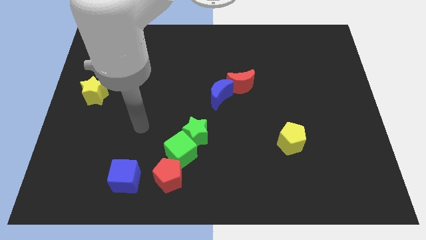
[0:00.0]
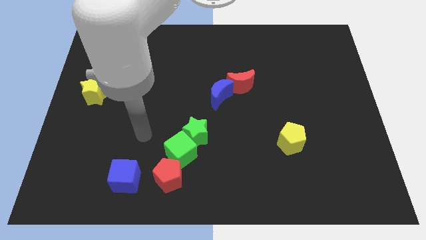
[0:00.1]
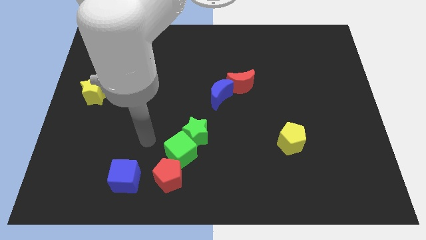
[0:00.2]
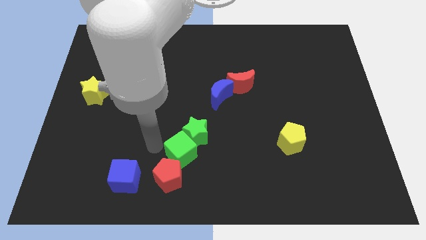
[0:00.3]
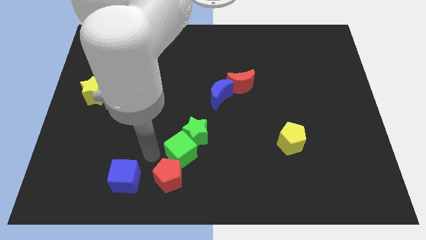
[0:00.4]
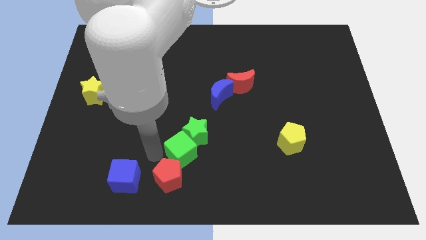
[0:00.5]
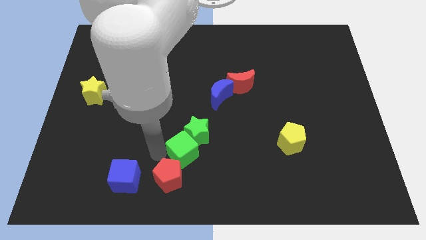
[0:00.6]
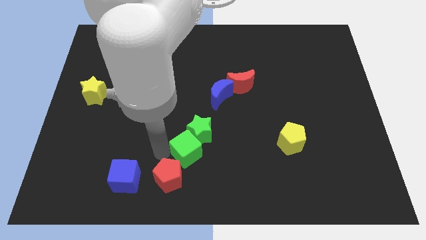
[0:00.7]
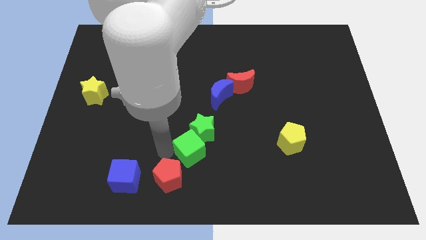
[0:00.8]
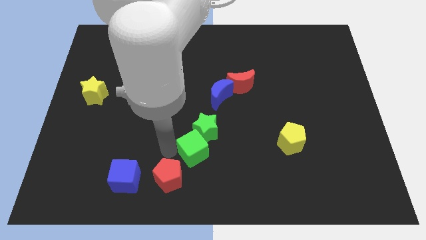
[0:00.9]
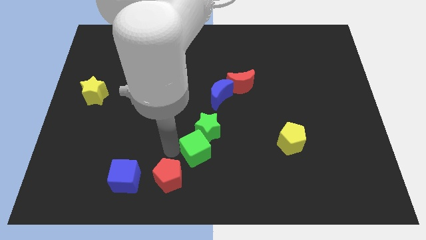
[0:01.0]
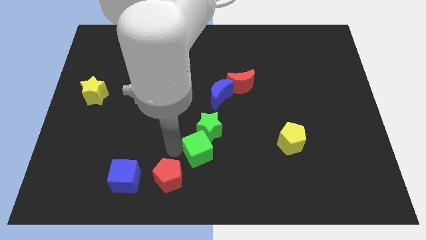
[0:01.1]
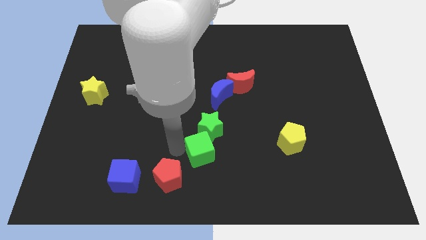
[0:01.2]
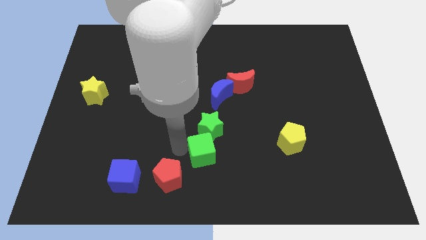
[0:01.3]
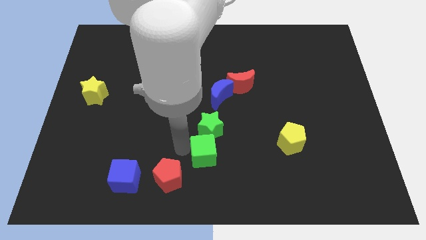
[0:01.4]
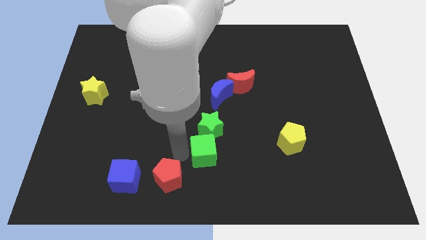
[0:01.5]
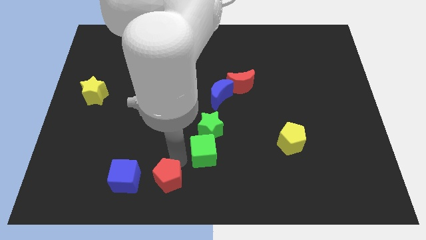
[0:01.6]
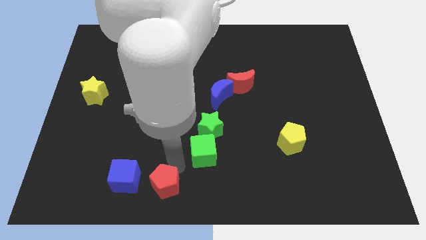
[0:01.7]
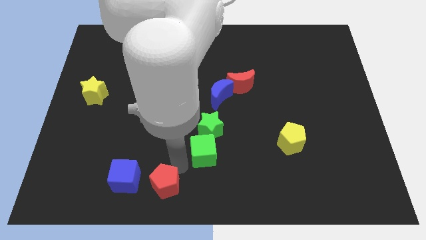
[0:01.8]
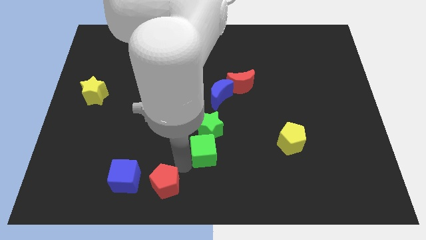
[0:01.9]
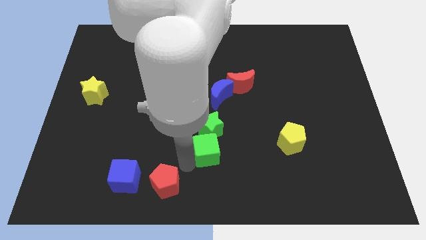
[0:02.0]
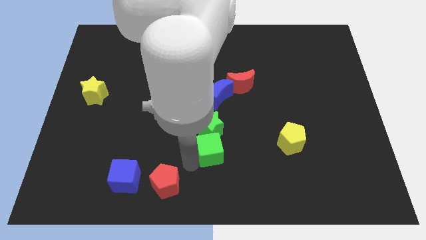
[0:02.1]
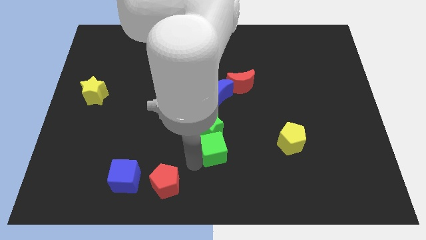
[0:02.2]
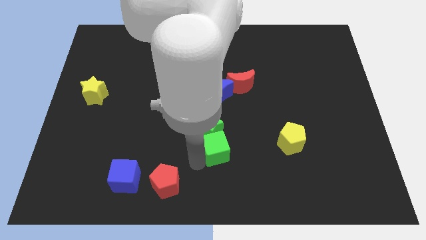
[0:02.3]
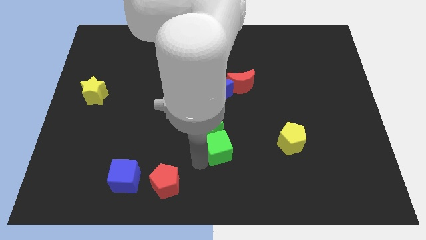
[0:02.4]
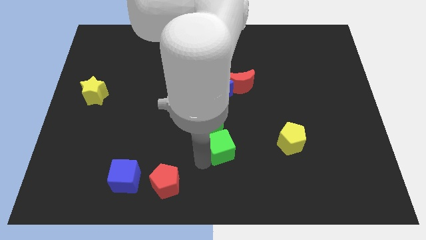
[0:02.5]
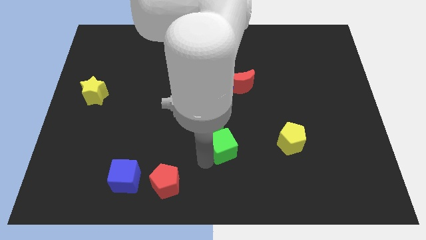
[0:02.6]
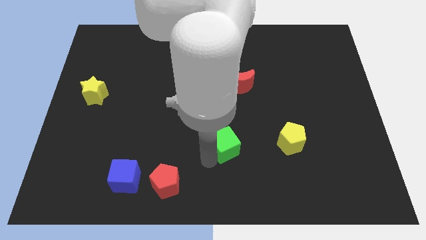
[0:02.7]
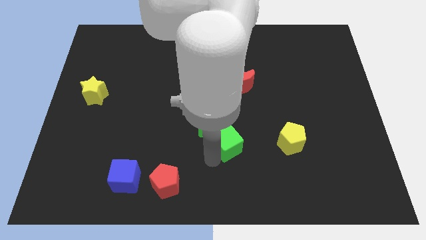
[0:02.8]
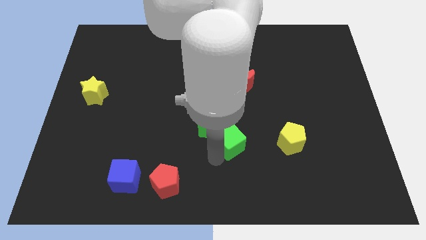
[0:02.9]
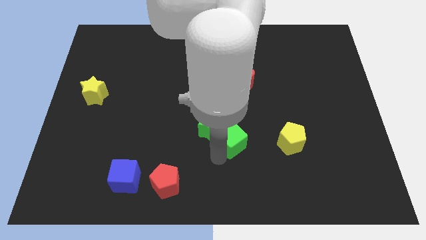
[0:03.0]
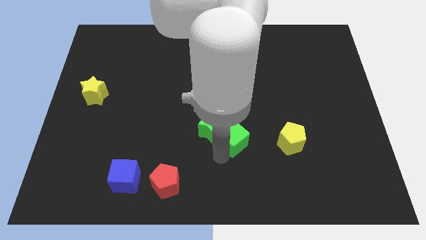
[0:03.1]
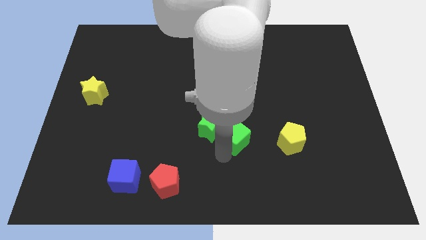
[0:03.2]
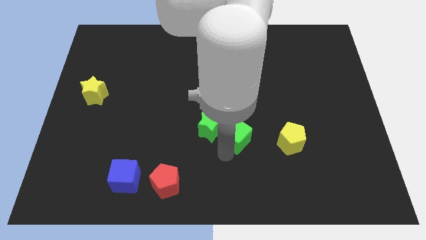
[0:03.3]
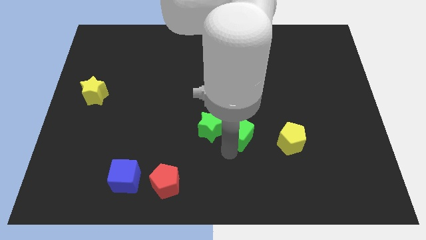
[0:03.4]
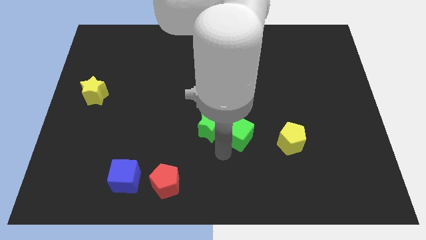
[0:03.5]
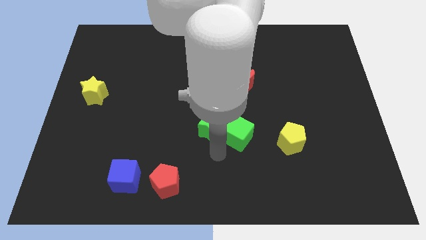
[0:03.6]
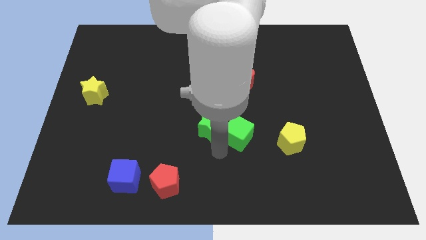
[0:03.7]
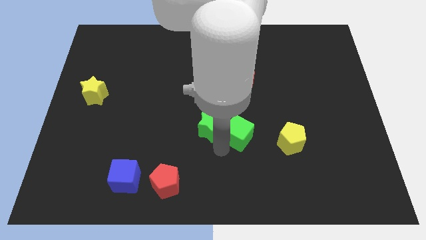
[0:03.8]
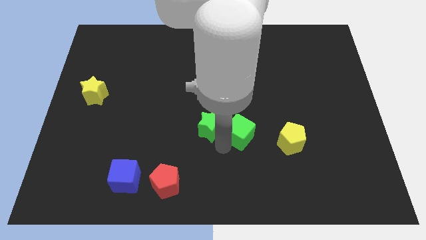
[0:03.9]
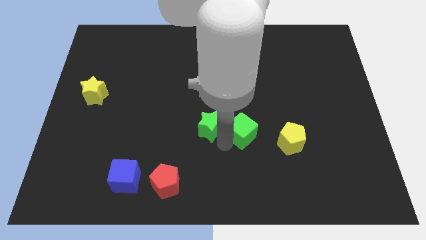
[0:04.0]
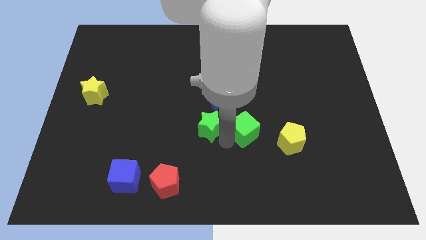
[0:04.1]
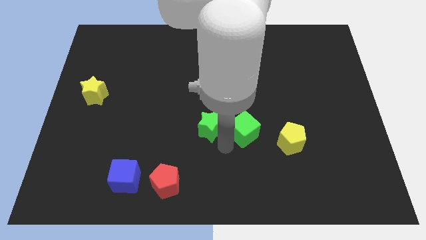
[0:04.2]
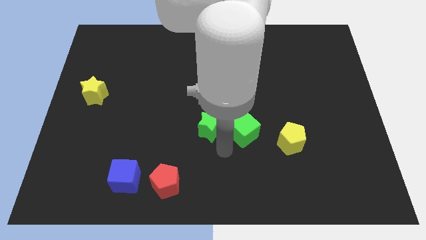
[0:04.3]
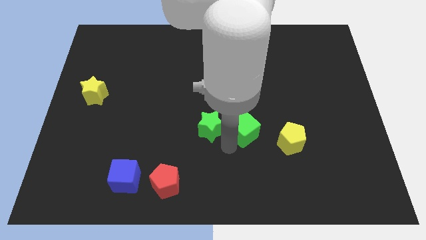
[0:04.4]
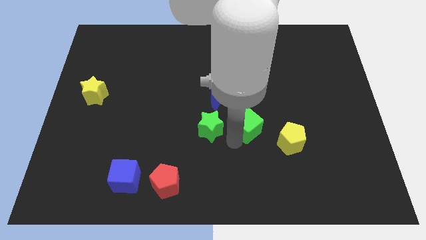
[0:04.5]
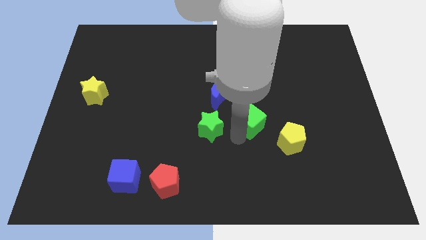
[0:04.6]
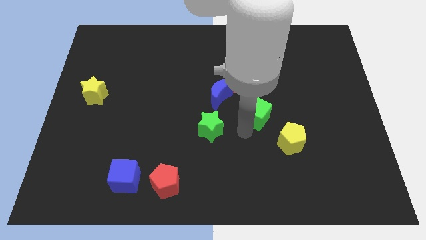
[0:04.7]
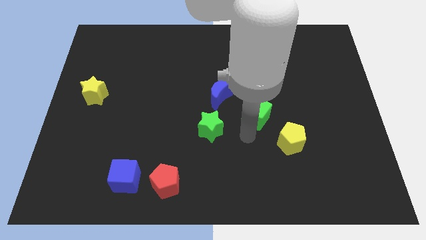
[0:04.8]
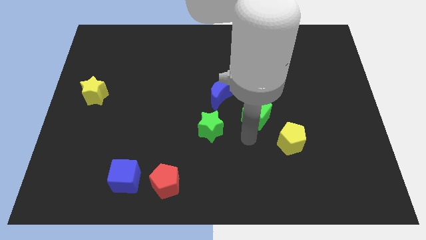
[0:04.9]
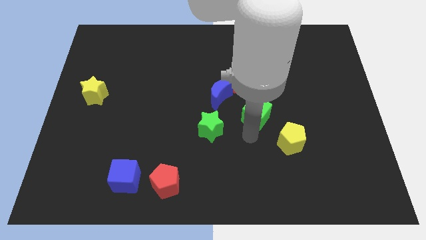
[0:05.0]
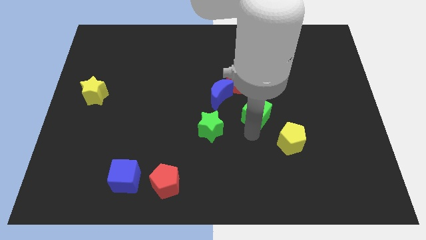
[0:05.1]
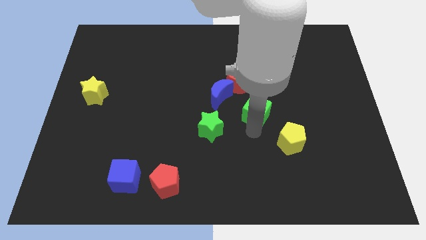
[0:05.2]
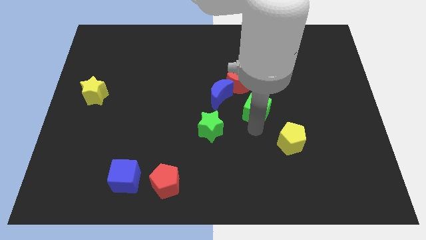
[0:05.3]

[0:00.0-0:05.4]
move the green cube to the right of the blue moon

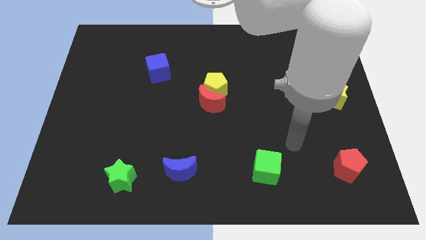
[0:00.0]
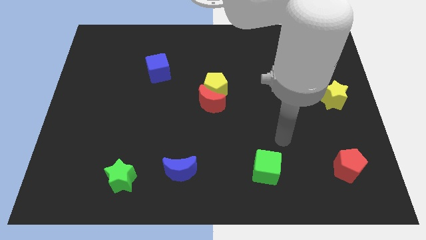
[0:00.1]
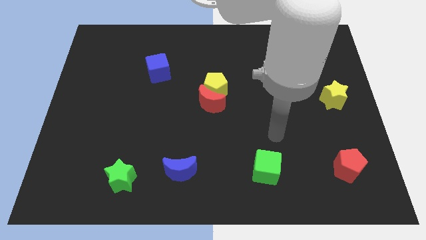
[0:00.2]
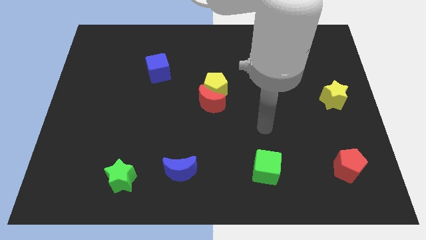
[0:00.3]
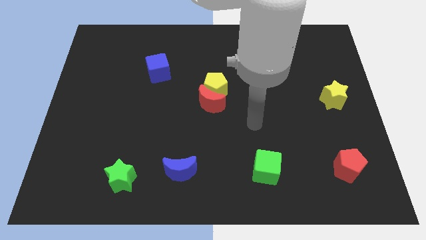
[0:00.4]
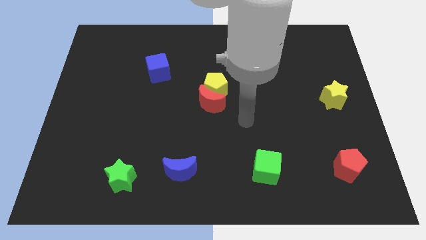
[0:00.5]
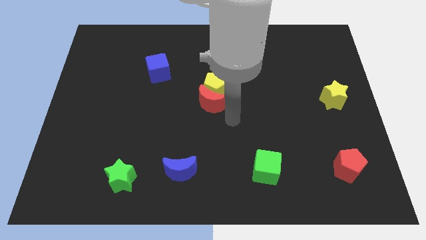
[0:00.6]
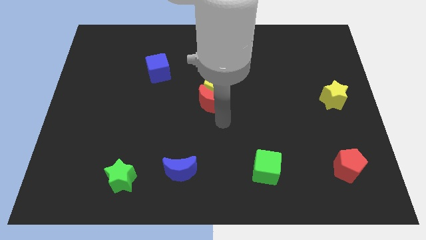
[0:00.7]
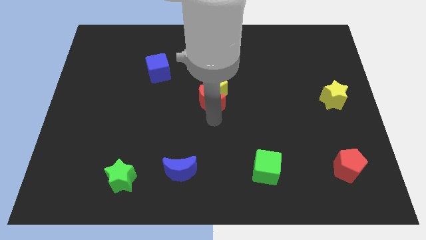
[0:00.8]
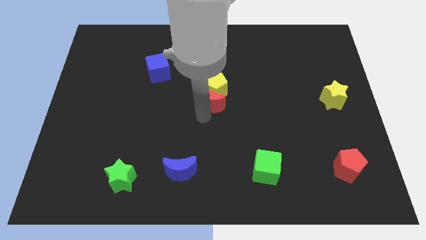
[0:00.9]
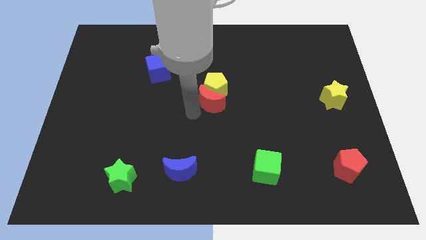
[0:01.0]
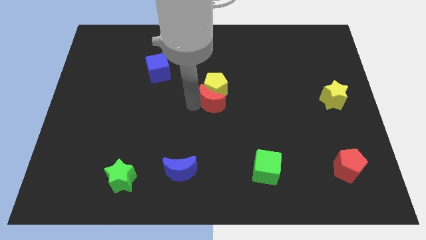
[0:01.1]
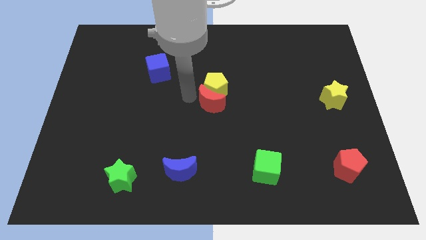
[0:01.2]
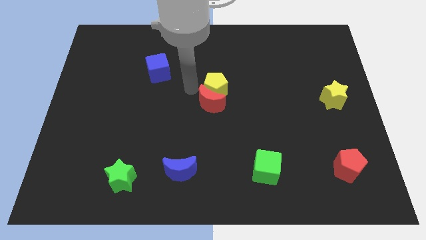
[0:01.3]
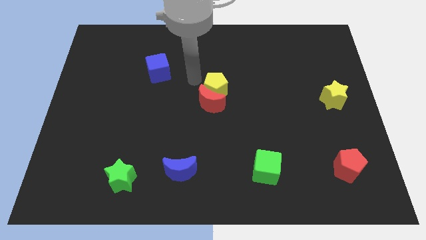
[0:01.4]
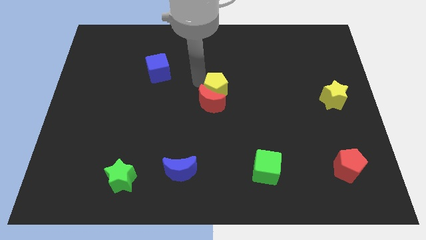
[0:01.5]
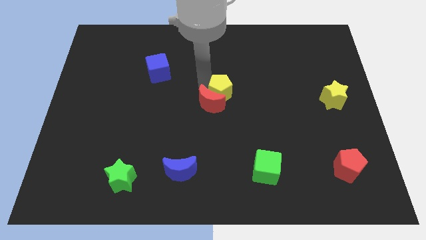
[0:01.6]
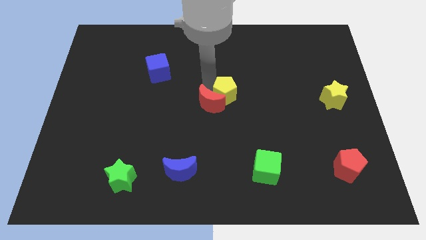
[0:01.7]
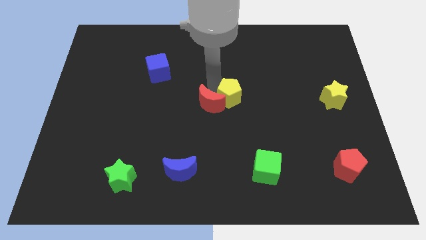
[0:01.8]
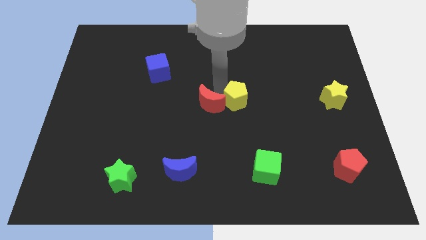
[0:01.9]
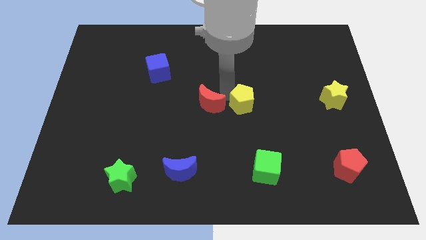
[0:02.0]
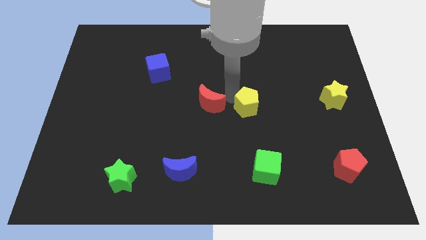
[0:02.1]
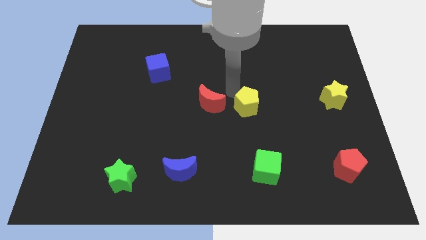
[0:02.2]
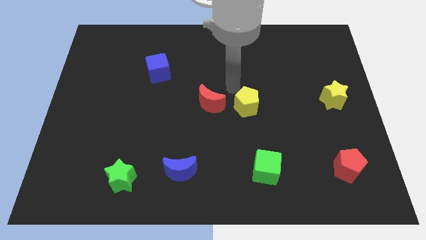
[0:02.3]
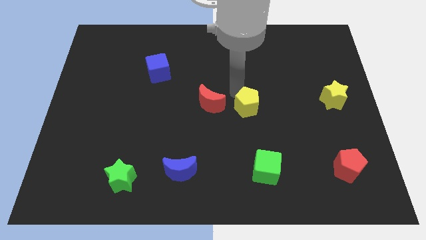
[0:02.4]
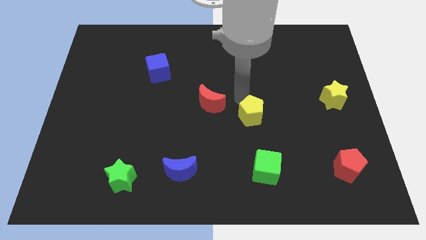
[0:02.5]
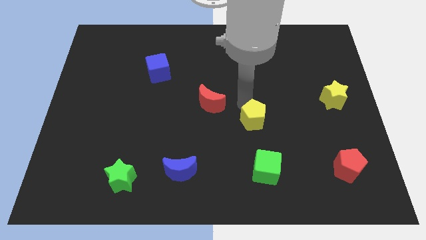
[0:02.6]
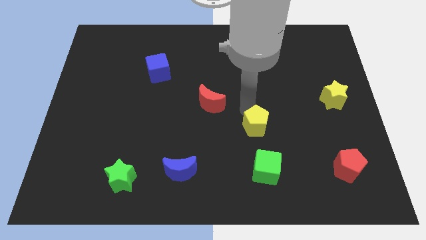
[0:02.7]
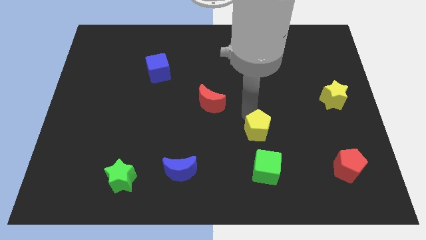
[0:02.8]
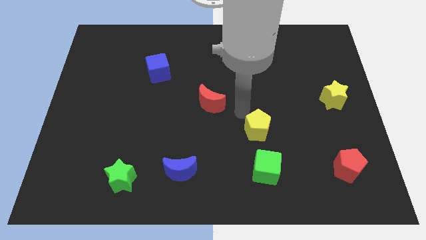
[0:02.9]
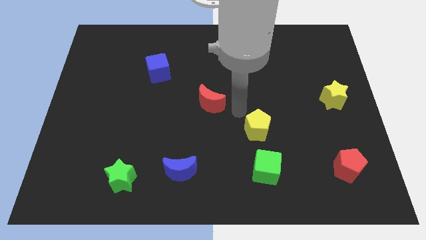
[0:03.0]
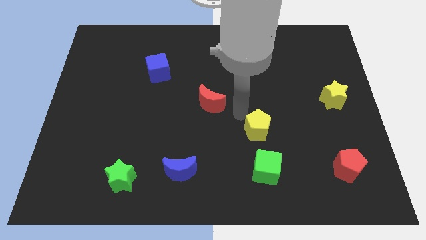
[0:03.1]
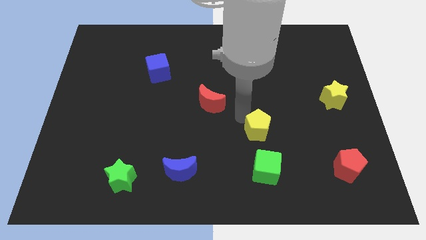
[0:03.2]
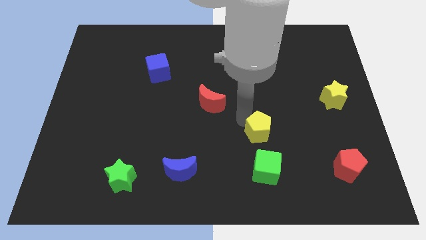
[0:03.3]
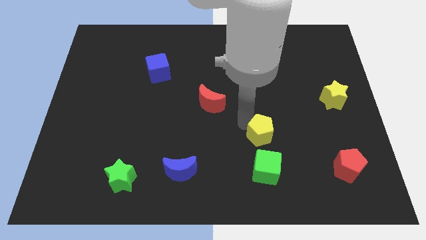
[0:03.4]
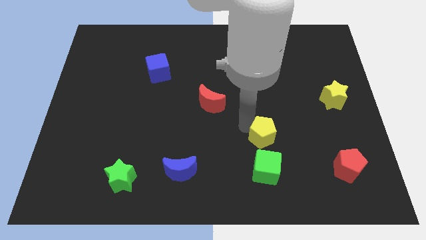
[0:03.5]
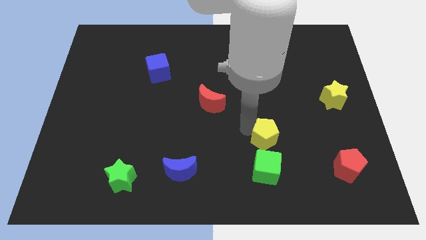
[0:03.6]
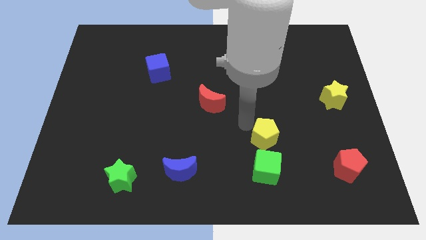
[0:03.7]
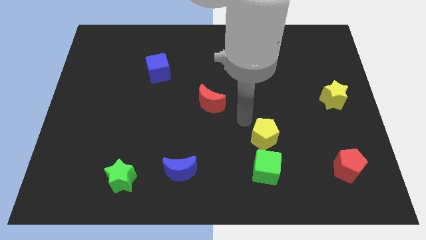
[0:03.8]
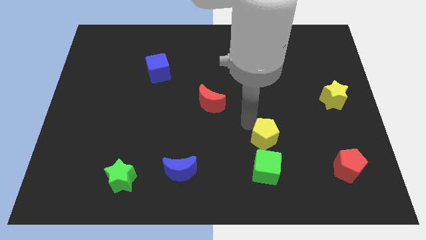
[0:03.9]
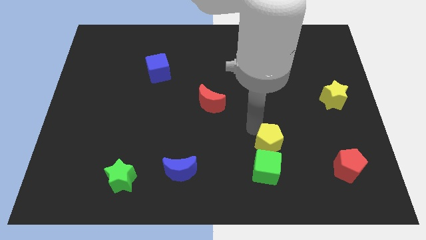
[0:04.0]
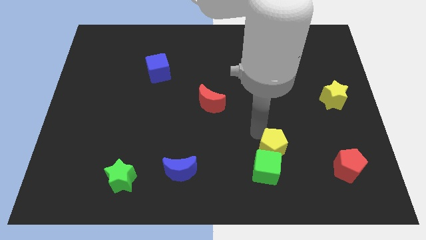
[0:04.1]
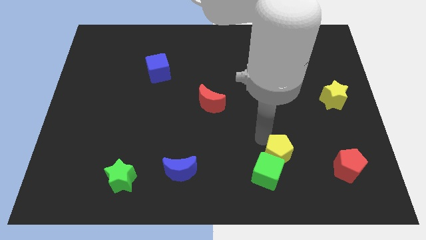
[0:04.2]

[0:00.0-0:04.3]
put the yellow pentagon left of the red pentagon
